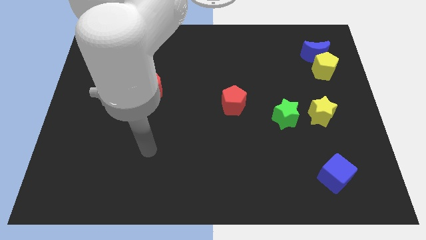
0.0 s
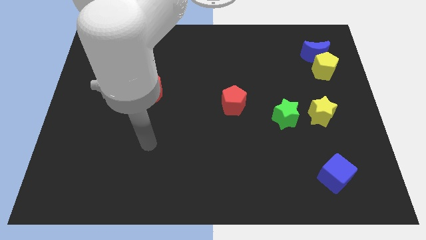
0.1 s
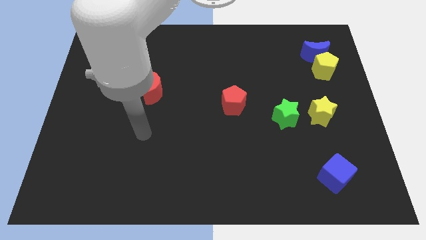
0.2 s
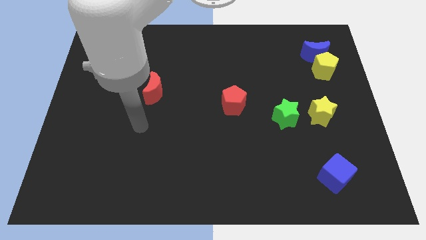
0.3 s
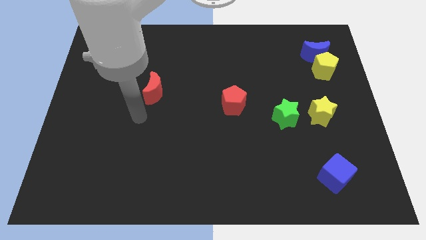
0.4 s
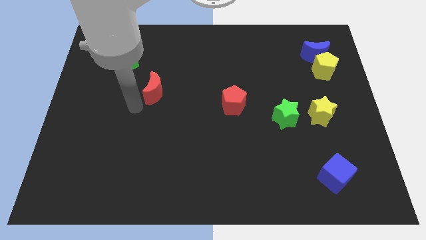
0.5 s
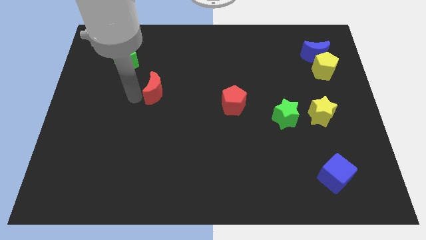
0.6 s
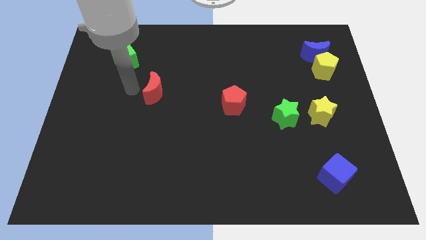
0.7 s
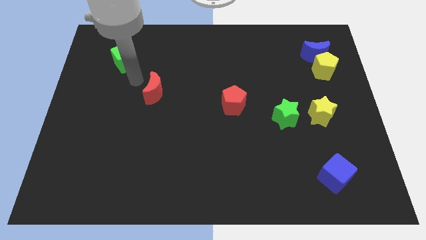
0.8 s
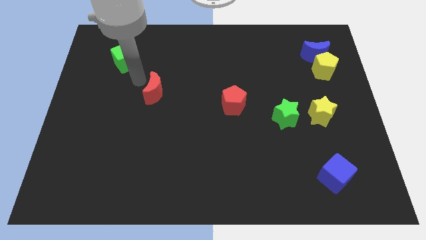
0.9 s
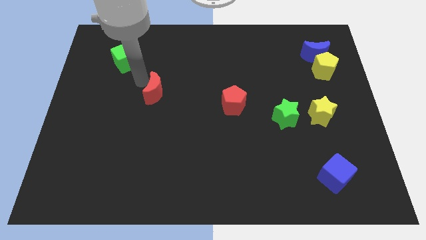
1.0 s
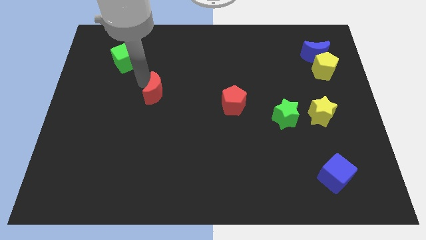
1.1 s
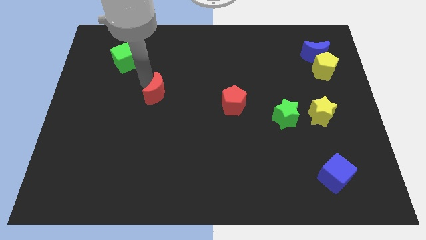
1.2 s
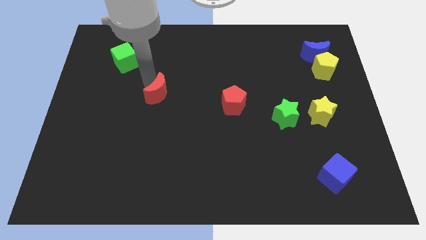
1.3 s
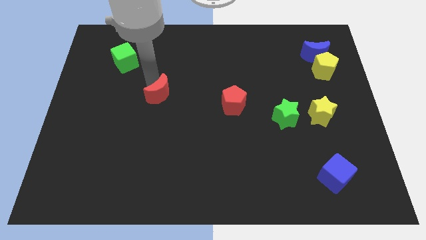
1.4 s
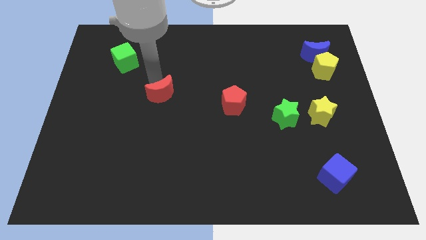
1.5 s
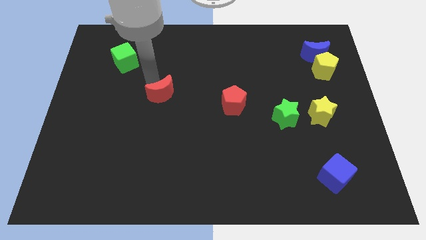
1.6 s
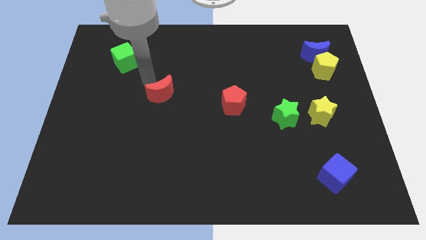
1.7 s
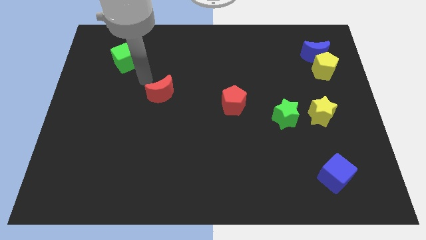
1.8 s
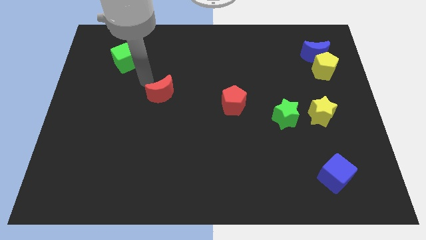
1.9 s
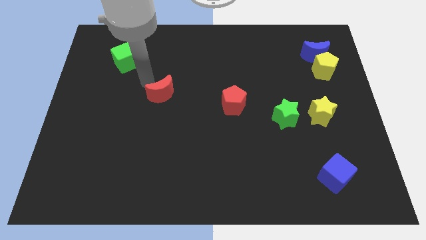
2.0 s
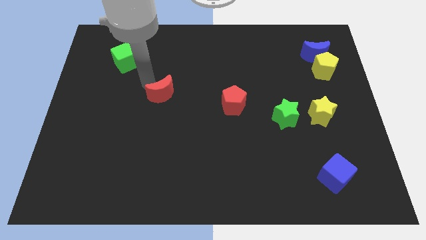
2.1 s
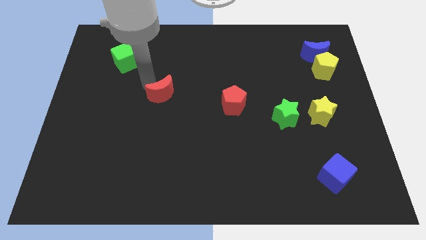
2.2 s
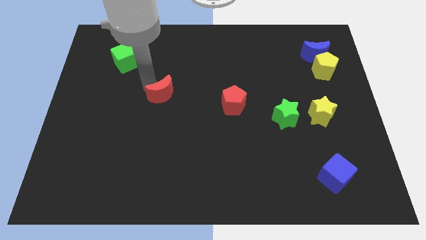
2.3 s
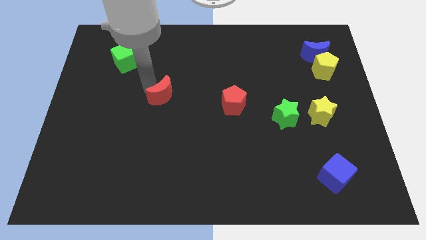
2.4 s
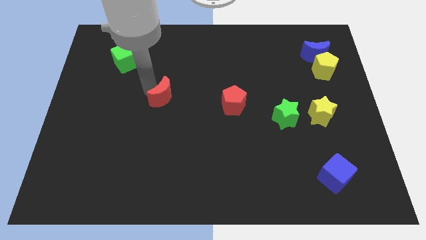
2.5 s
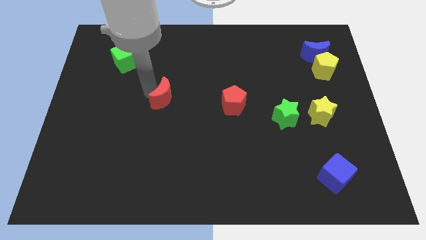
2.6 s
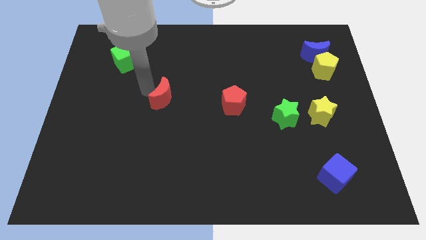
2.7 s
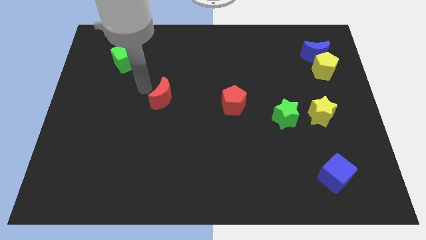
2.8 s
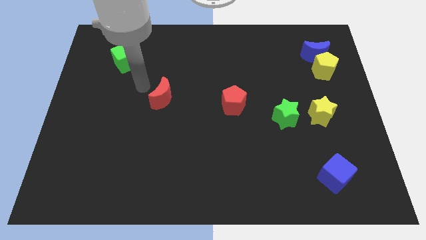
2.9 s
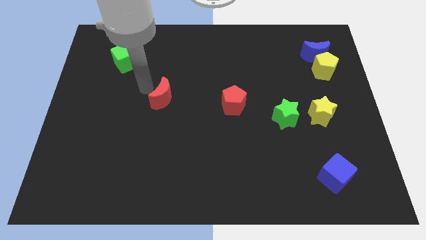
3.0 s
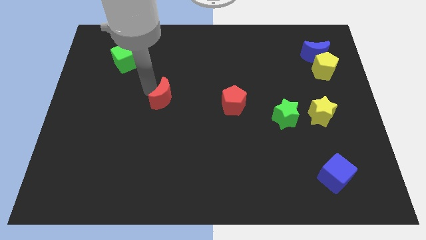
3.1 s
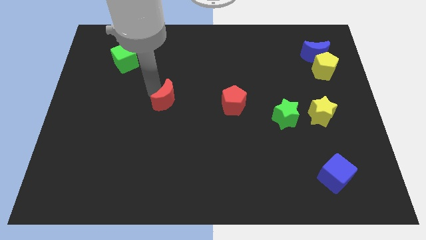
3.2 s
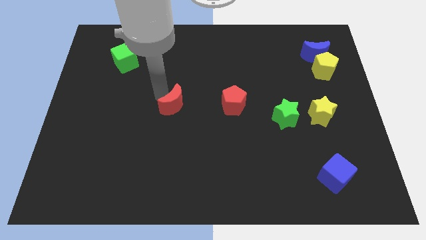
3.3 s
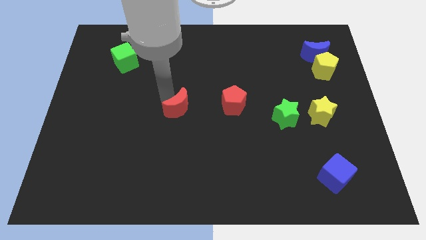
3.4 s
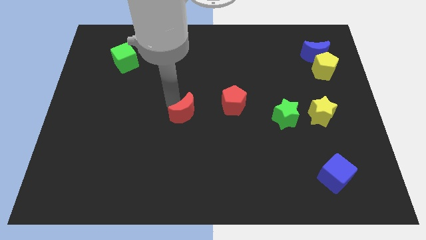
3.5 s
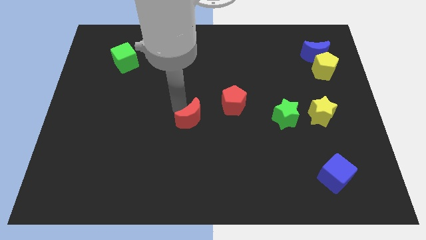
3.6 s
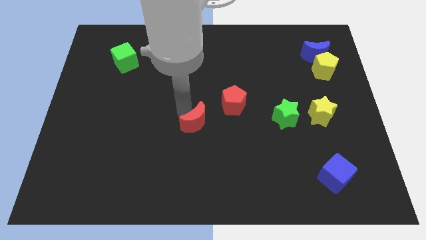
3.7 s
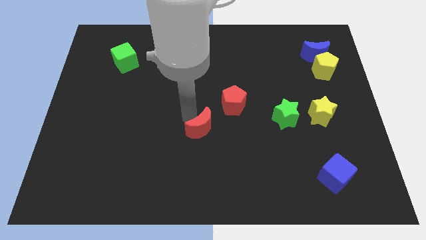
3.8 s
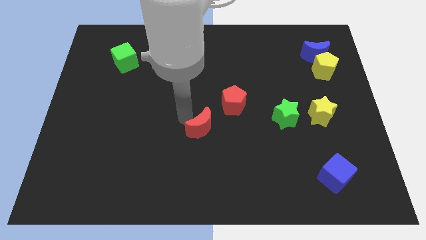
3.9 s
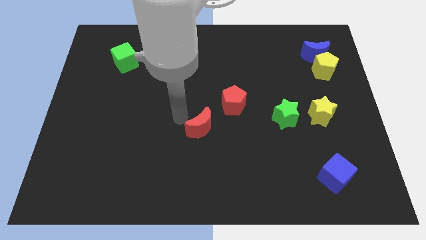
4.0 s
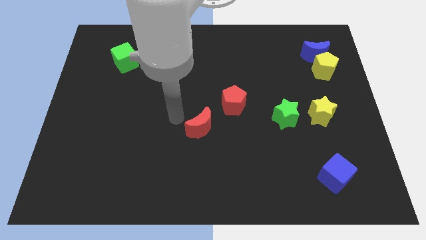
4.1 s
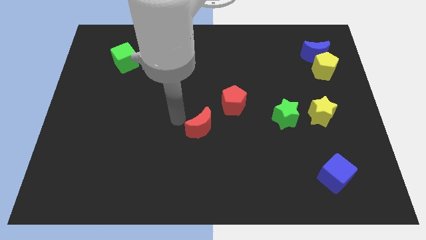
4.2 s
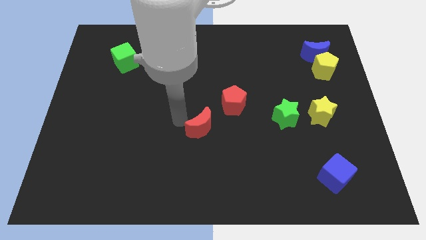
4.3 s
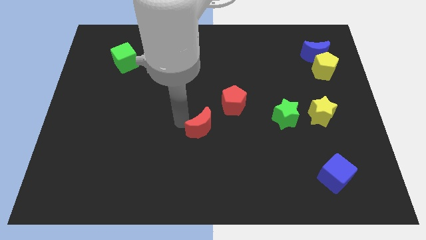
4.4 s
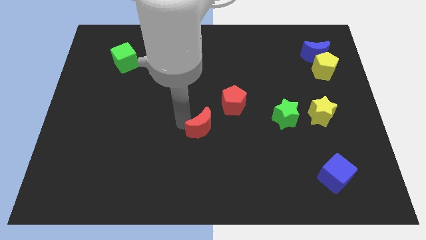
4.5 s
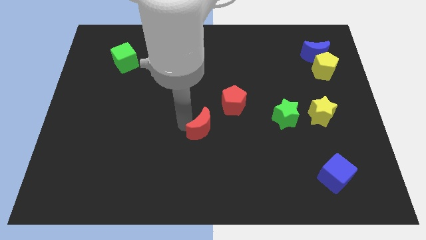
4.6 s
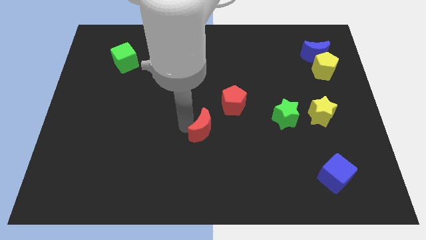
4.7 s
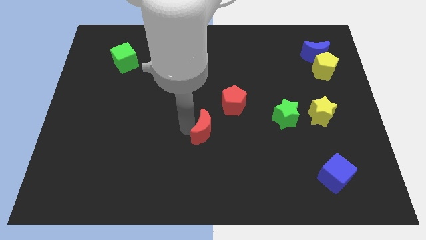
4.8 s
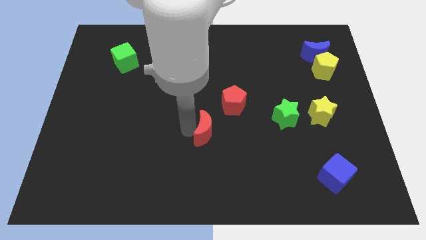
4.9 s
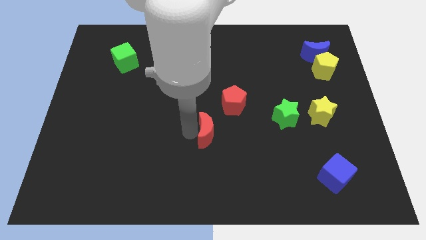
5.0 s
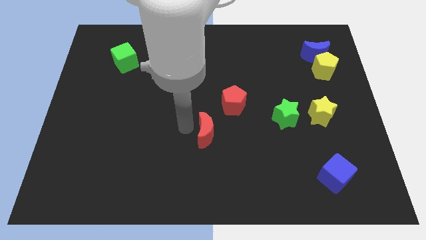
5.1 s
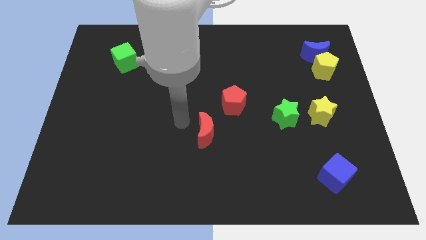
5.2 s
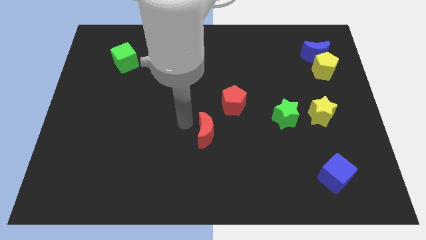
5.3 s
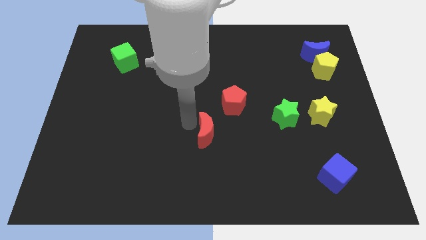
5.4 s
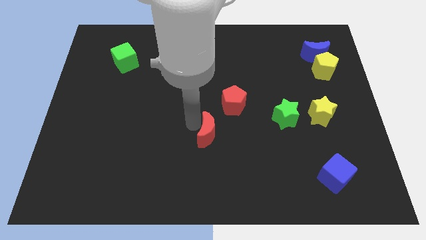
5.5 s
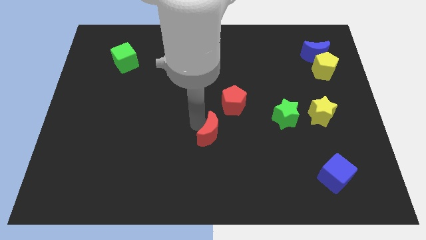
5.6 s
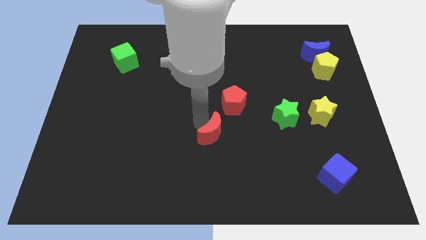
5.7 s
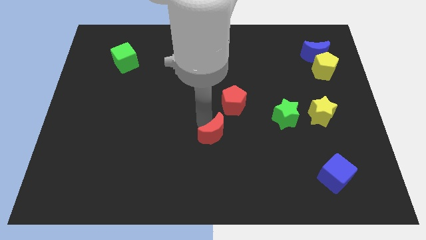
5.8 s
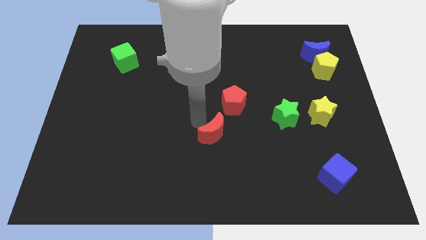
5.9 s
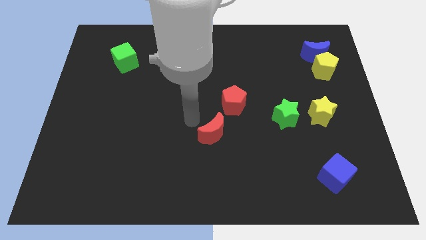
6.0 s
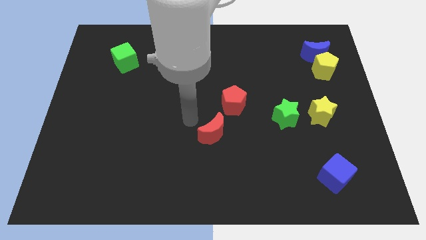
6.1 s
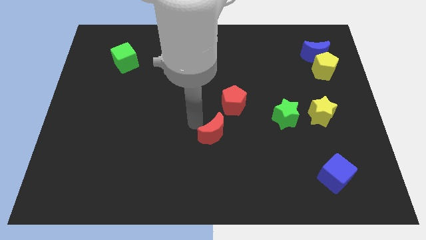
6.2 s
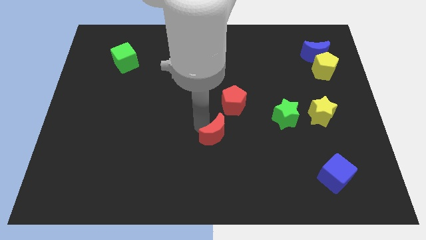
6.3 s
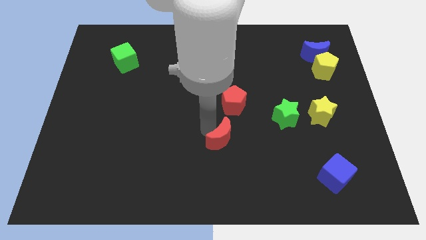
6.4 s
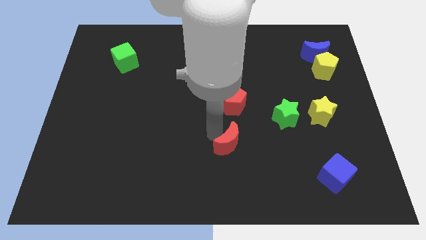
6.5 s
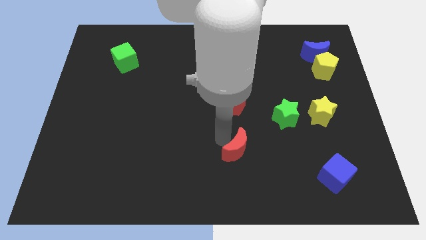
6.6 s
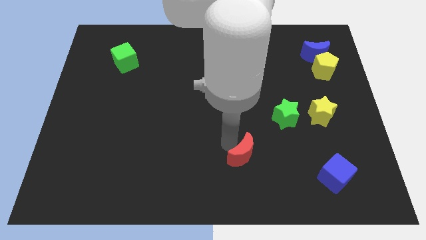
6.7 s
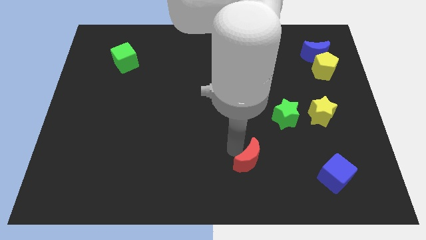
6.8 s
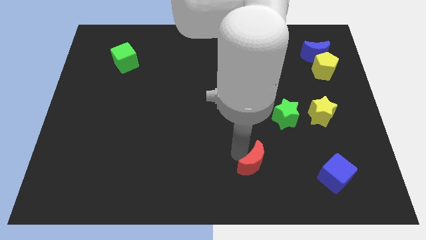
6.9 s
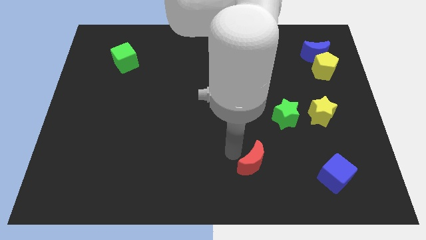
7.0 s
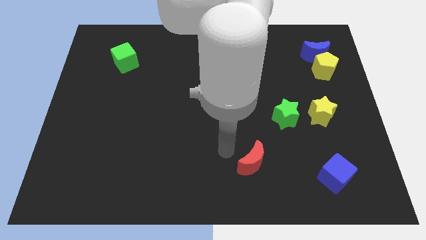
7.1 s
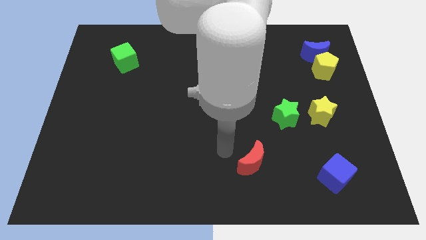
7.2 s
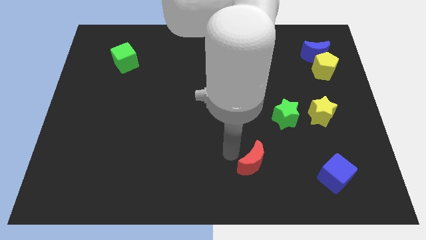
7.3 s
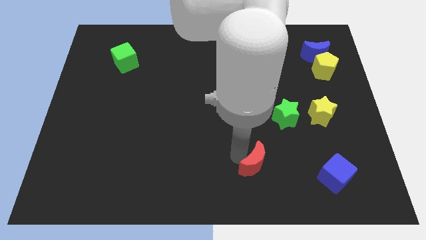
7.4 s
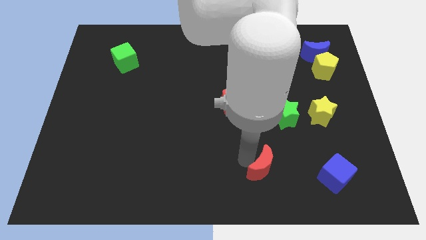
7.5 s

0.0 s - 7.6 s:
push the red moon just left of the blue cube

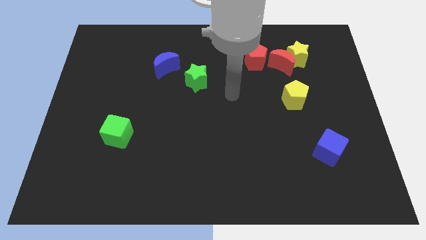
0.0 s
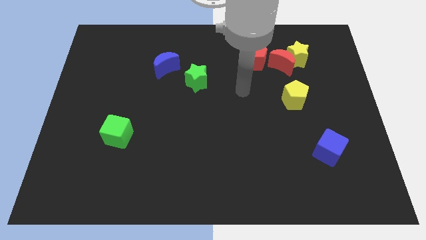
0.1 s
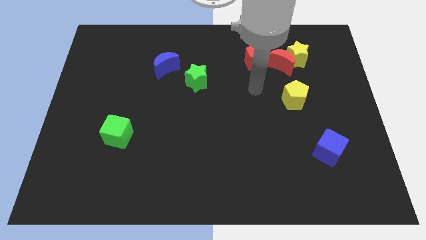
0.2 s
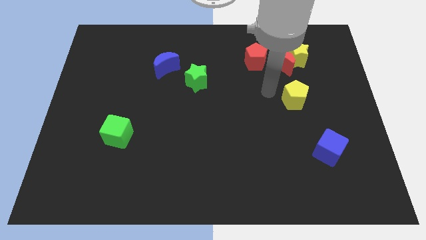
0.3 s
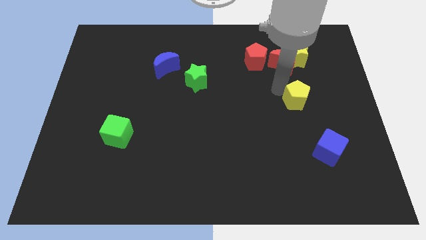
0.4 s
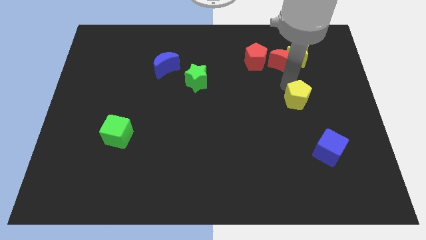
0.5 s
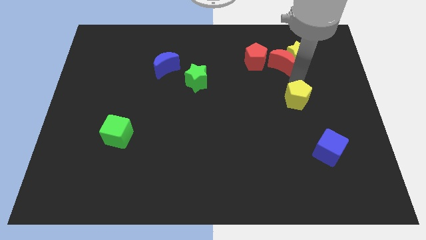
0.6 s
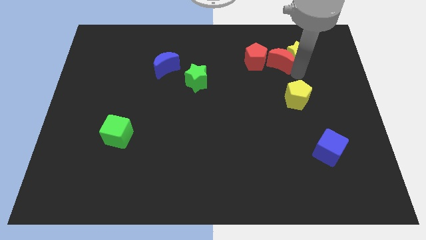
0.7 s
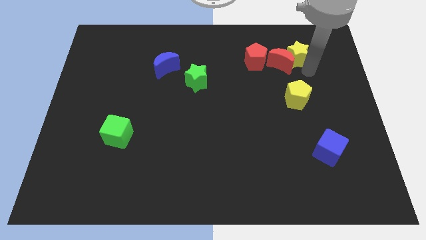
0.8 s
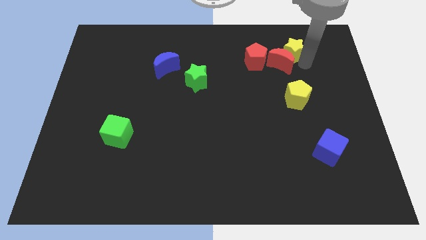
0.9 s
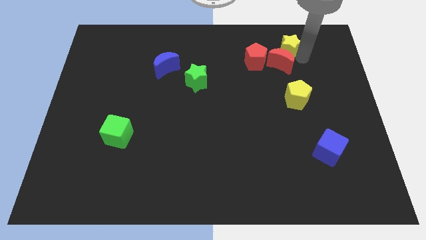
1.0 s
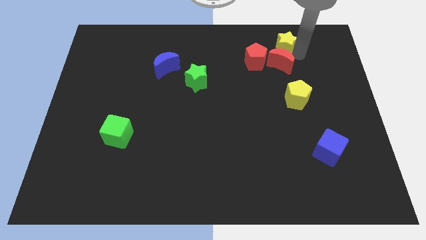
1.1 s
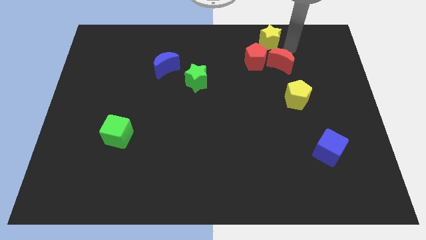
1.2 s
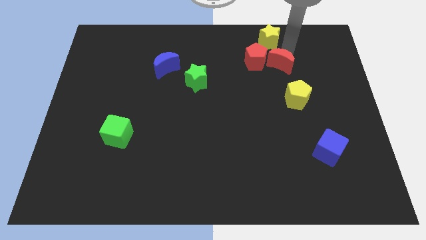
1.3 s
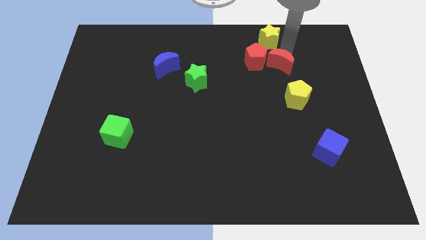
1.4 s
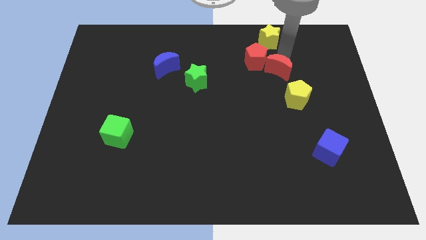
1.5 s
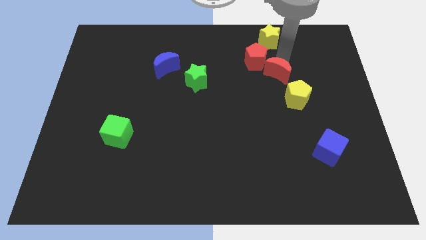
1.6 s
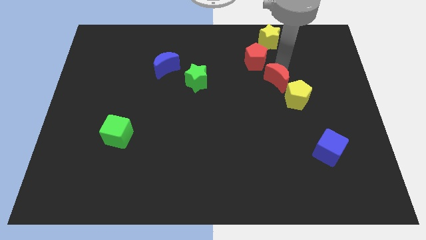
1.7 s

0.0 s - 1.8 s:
slide the red moon to the bottom of the red pentagon
